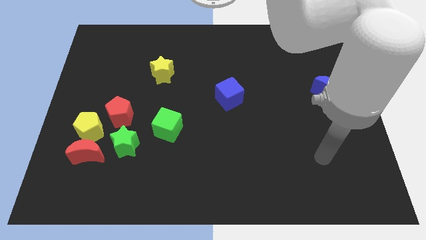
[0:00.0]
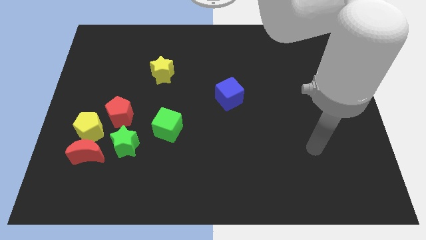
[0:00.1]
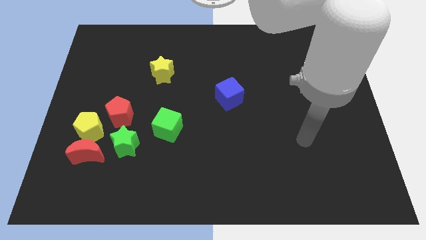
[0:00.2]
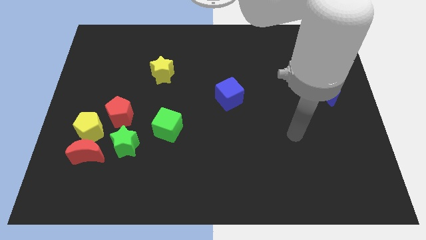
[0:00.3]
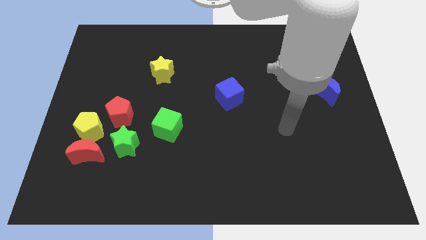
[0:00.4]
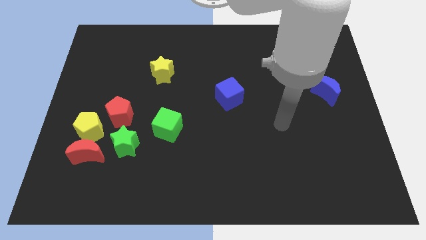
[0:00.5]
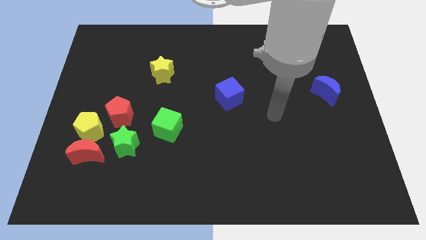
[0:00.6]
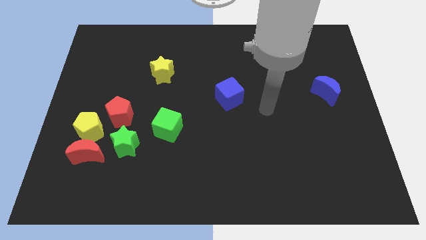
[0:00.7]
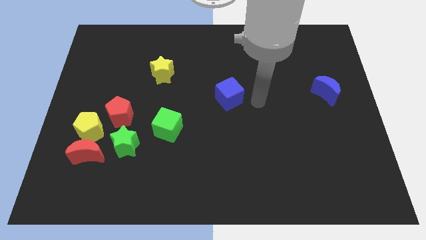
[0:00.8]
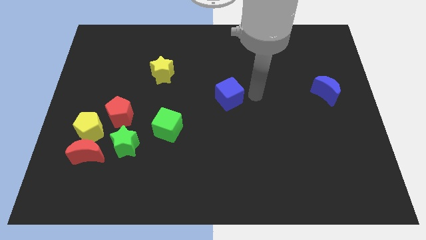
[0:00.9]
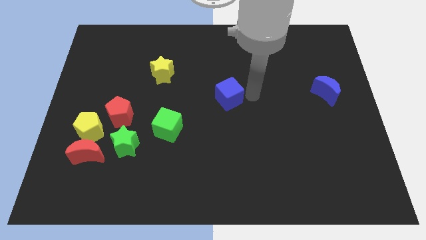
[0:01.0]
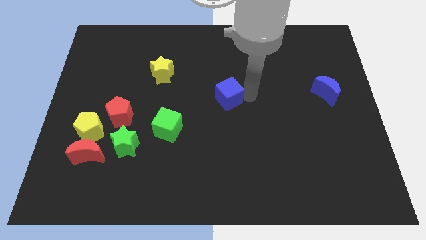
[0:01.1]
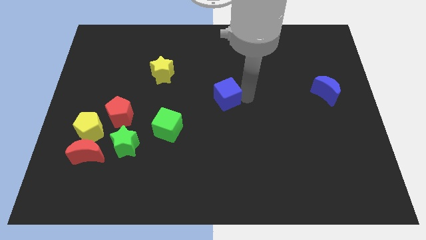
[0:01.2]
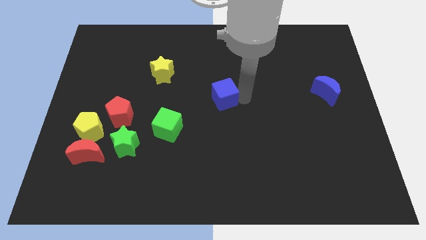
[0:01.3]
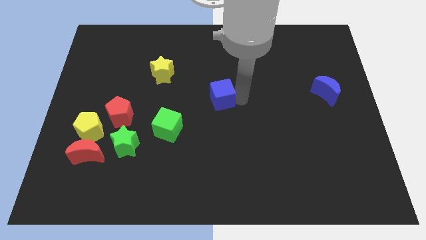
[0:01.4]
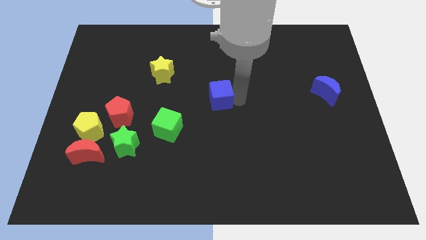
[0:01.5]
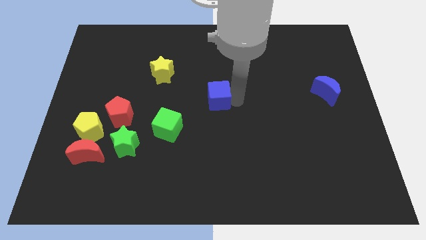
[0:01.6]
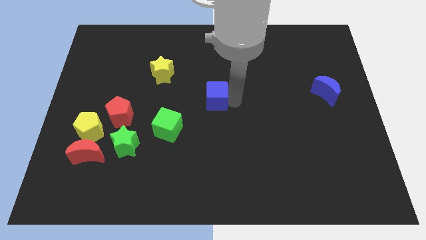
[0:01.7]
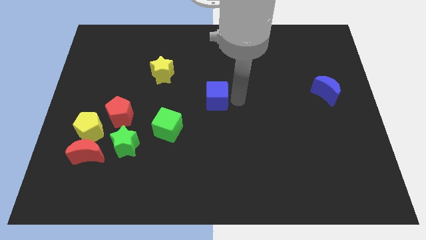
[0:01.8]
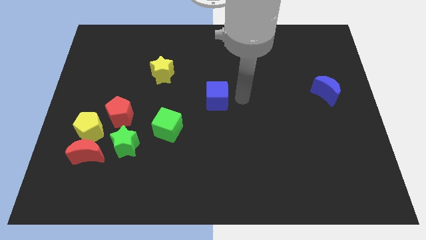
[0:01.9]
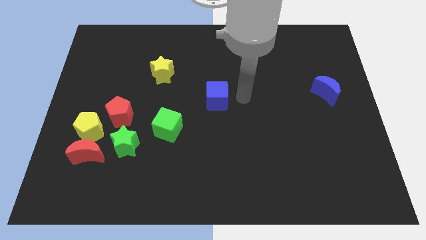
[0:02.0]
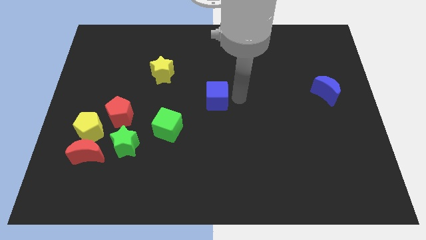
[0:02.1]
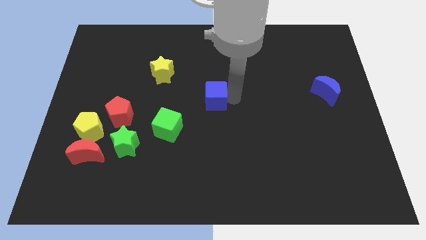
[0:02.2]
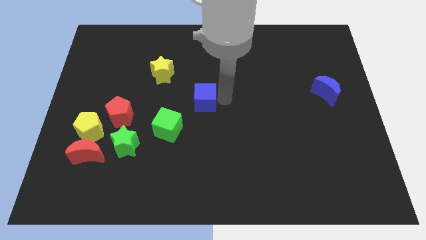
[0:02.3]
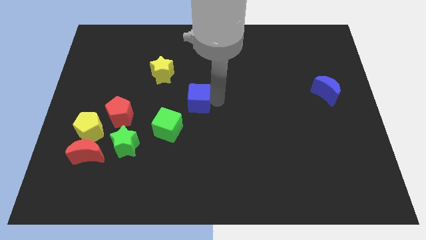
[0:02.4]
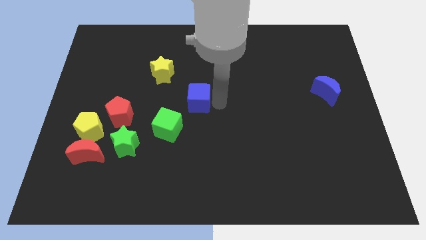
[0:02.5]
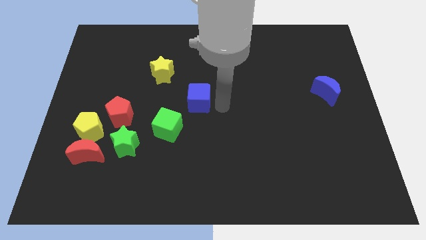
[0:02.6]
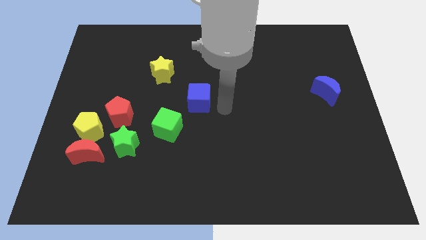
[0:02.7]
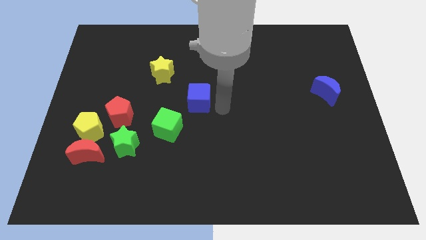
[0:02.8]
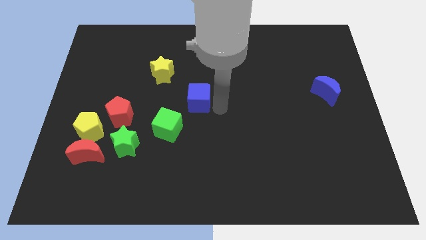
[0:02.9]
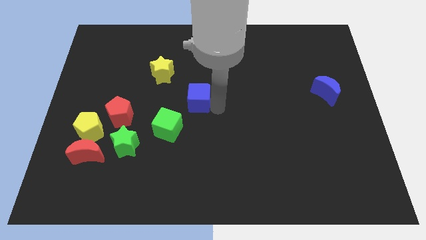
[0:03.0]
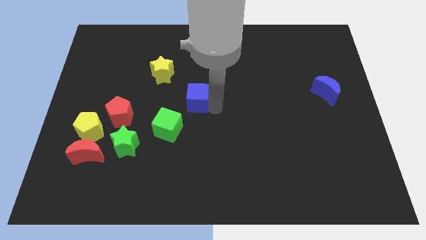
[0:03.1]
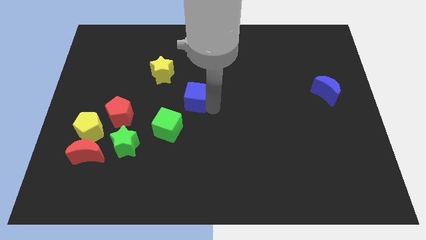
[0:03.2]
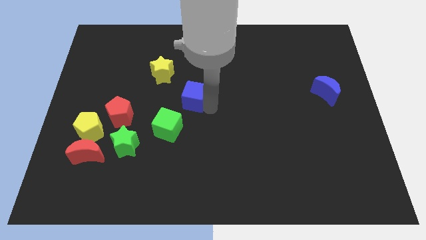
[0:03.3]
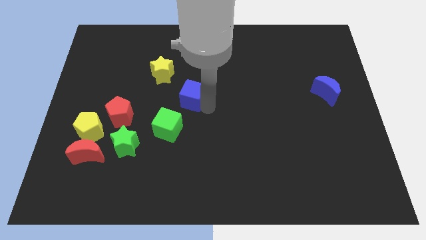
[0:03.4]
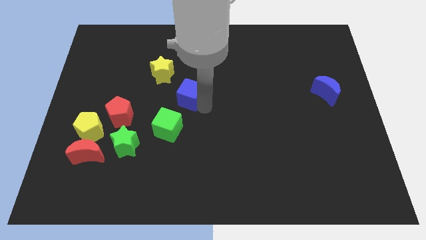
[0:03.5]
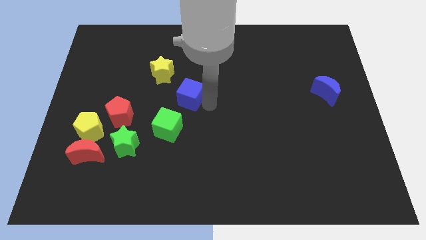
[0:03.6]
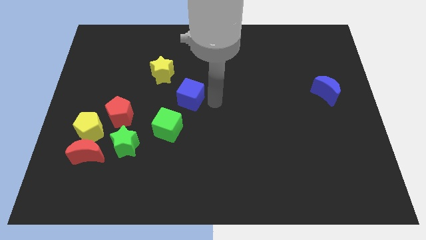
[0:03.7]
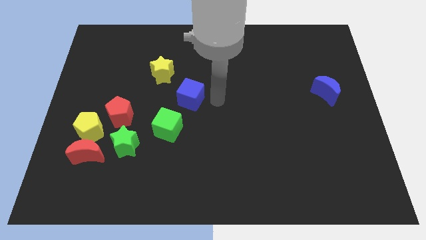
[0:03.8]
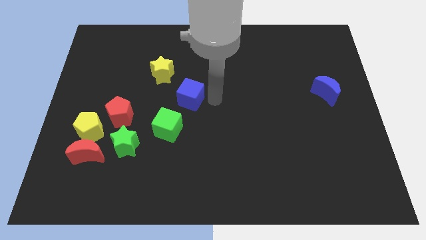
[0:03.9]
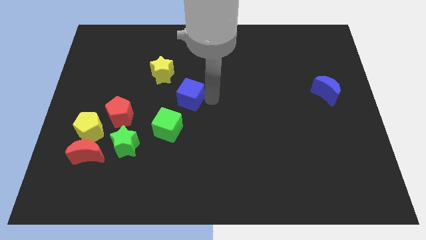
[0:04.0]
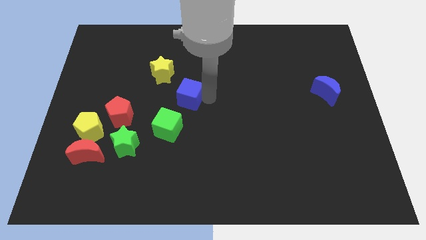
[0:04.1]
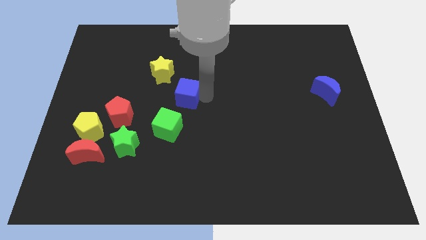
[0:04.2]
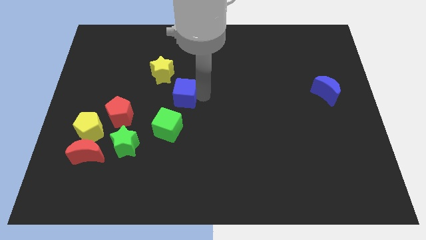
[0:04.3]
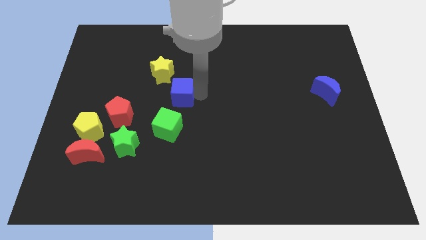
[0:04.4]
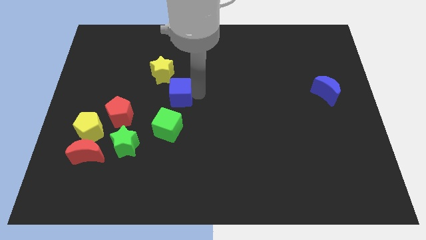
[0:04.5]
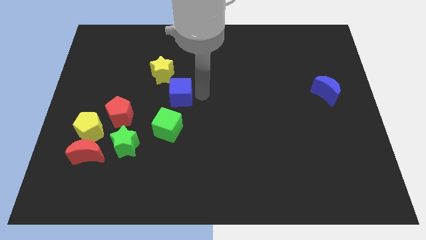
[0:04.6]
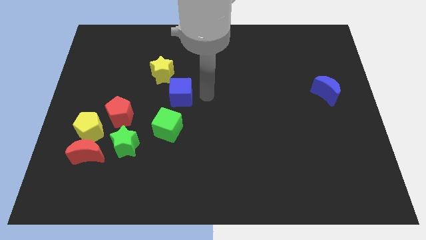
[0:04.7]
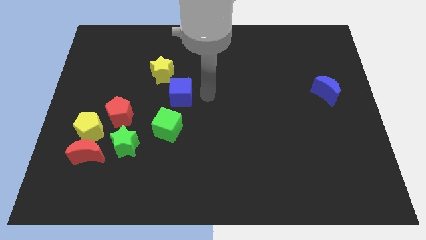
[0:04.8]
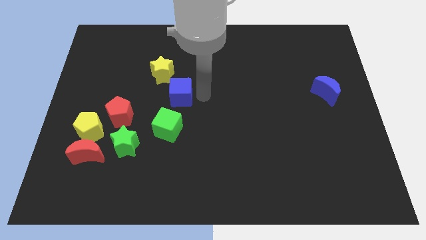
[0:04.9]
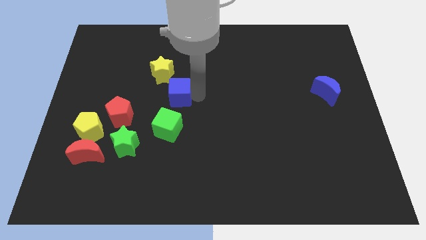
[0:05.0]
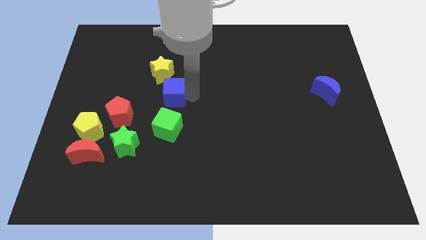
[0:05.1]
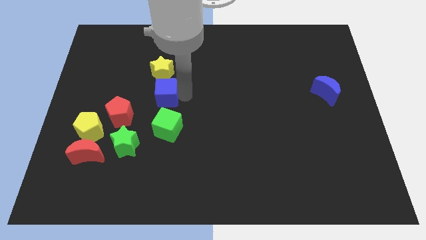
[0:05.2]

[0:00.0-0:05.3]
push the blue cube diagonally up and to the right of the red pentagon

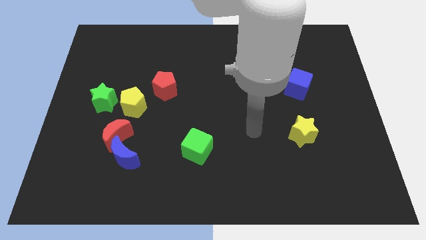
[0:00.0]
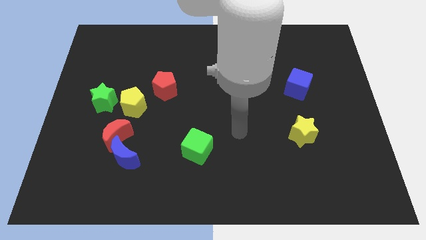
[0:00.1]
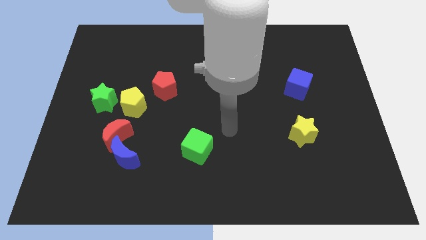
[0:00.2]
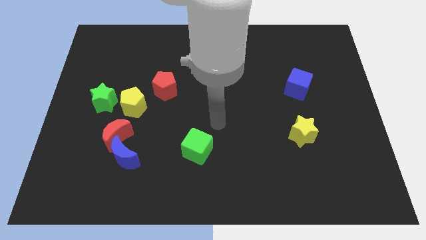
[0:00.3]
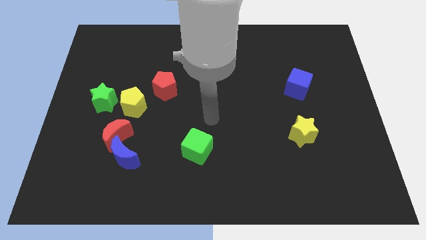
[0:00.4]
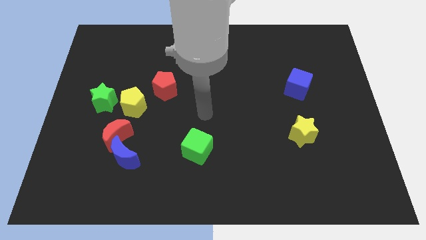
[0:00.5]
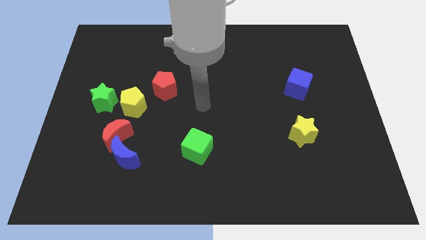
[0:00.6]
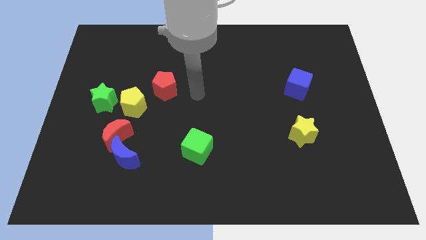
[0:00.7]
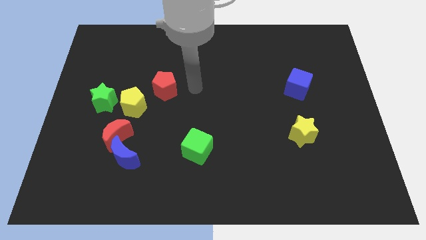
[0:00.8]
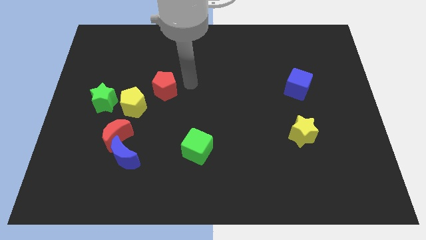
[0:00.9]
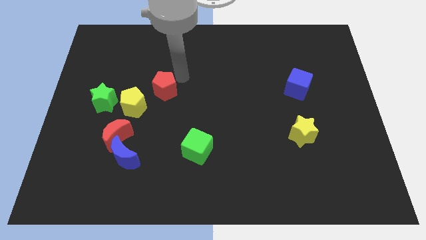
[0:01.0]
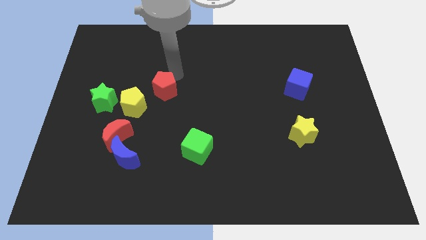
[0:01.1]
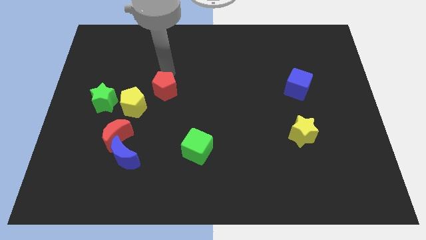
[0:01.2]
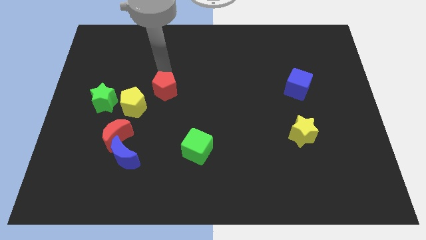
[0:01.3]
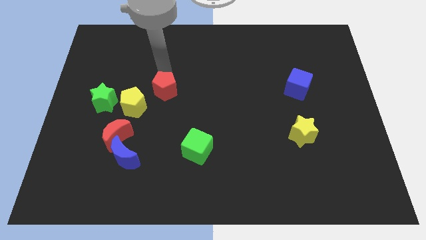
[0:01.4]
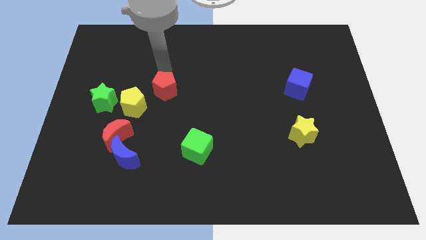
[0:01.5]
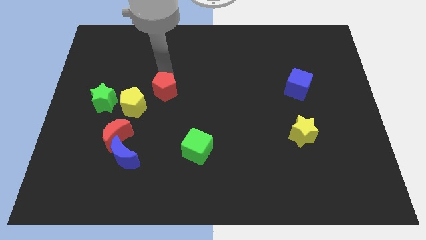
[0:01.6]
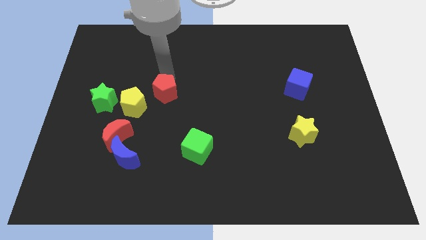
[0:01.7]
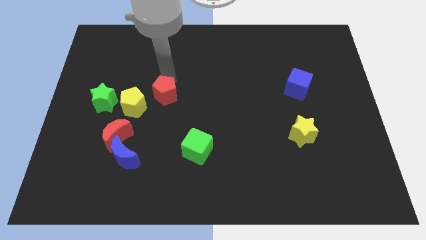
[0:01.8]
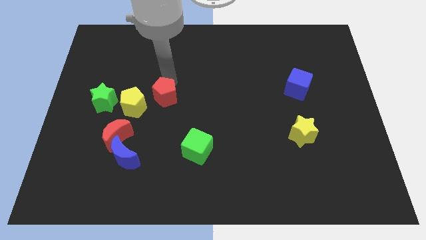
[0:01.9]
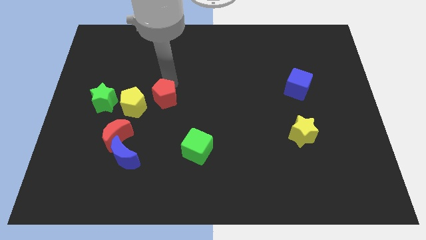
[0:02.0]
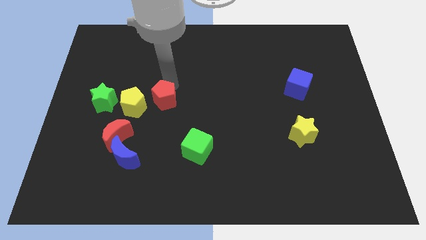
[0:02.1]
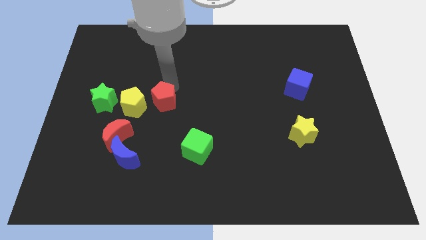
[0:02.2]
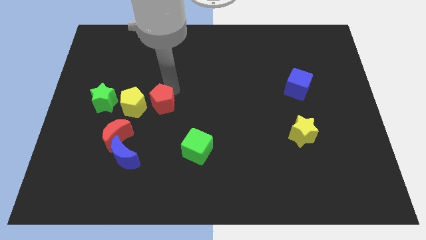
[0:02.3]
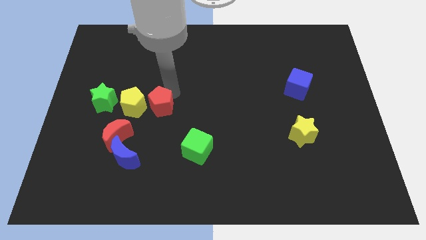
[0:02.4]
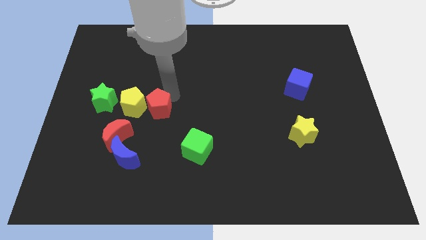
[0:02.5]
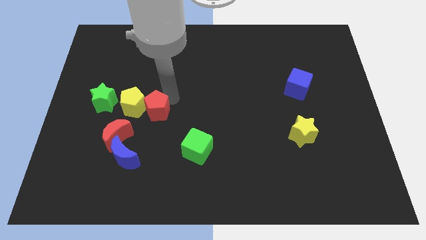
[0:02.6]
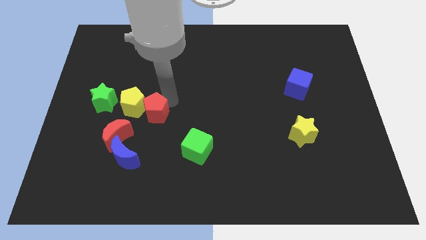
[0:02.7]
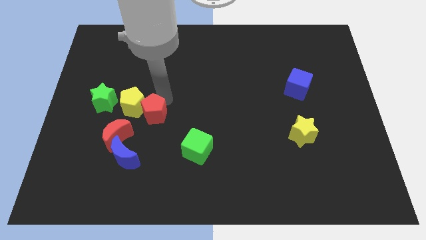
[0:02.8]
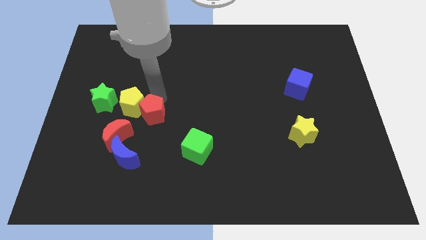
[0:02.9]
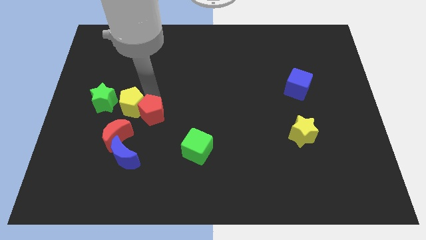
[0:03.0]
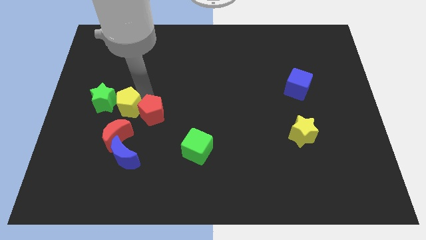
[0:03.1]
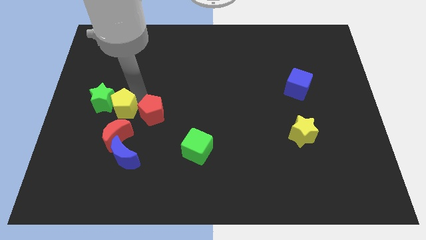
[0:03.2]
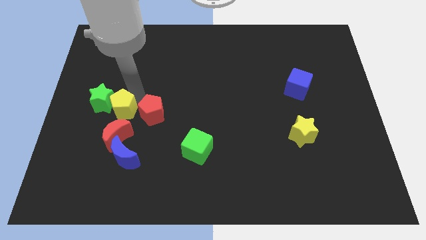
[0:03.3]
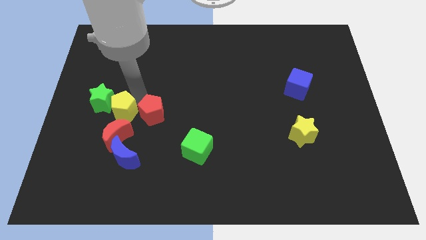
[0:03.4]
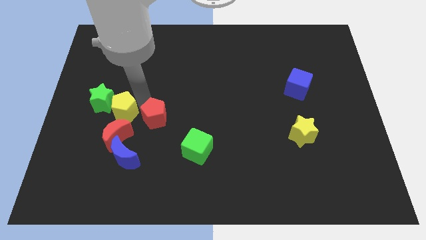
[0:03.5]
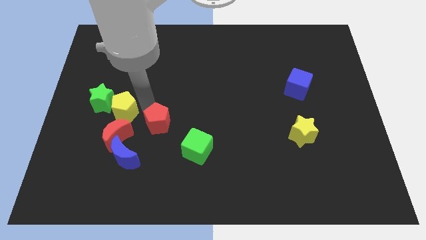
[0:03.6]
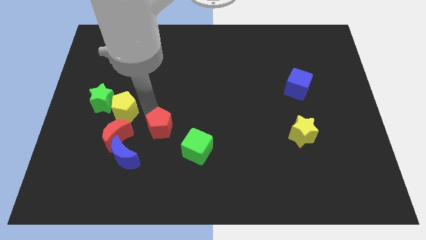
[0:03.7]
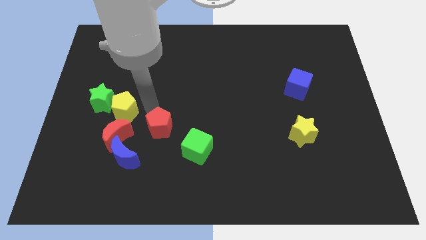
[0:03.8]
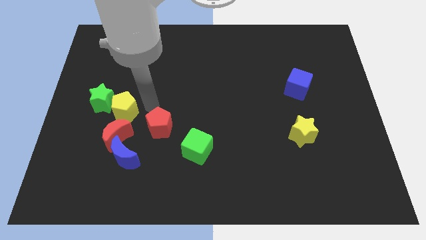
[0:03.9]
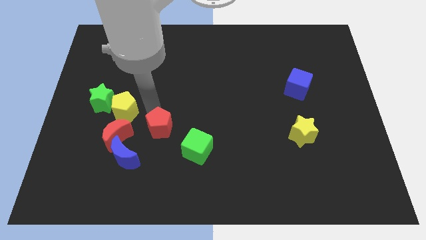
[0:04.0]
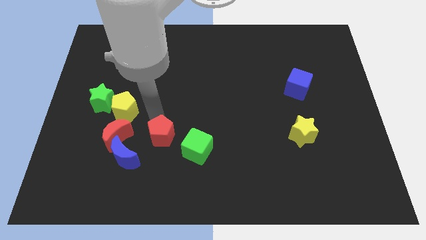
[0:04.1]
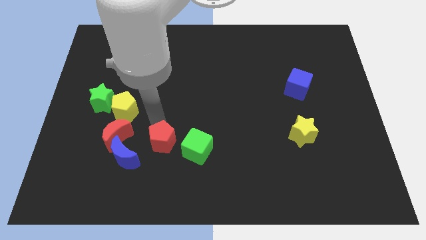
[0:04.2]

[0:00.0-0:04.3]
put the red pentagon just right of the blue moon
